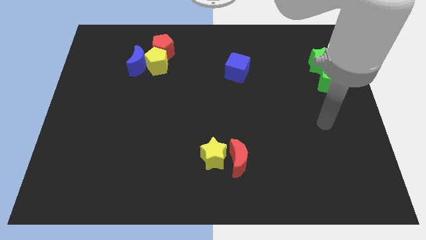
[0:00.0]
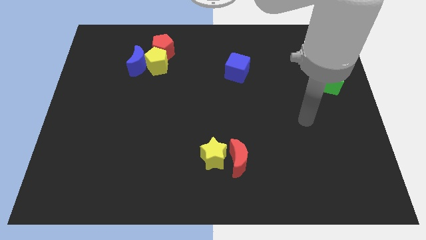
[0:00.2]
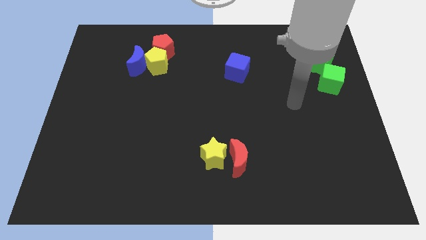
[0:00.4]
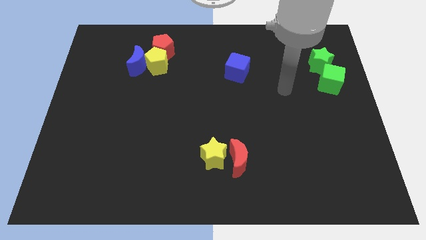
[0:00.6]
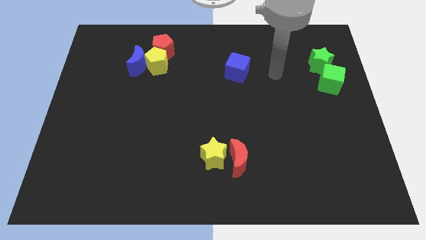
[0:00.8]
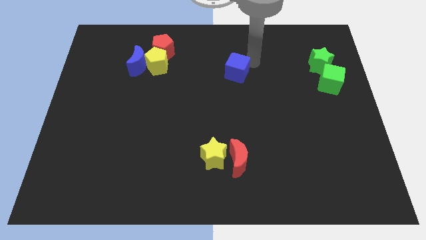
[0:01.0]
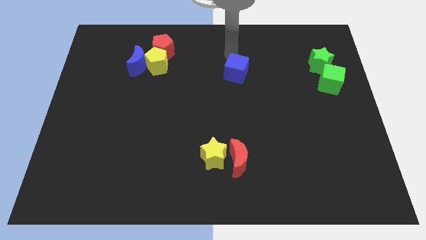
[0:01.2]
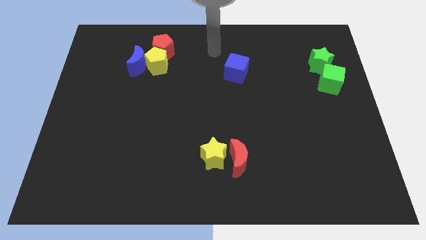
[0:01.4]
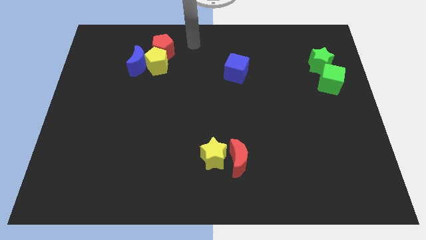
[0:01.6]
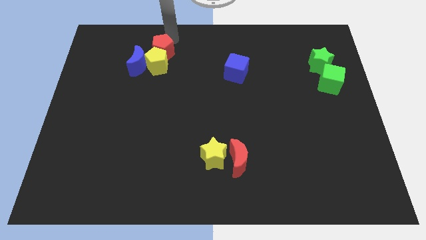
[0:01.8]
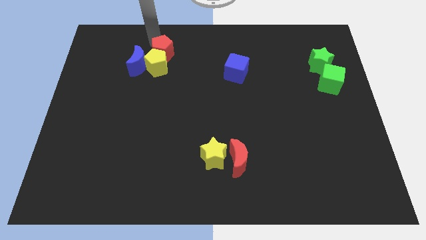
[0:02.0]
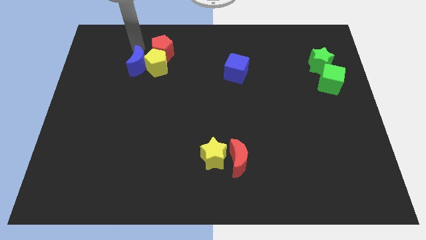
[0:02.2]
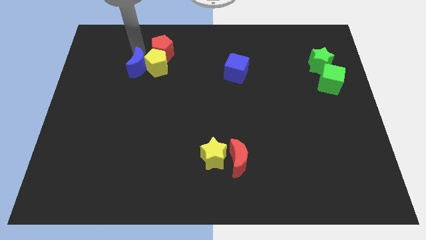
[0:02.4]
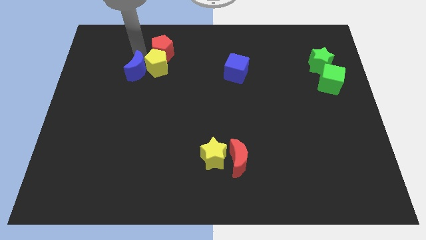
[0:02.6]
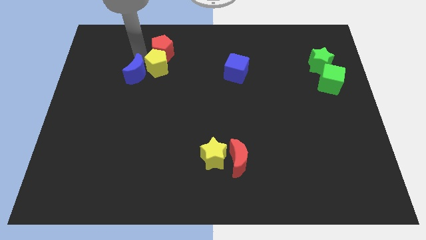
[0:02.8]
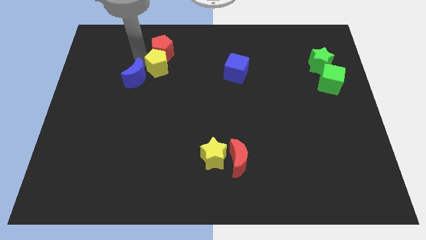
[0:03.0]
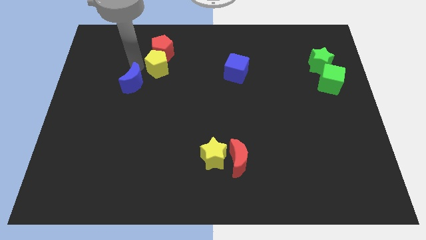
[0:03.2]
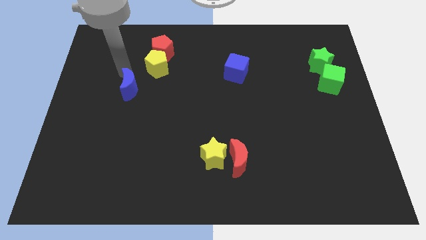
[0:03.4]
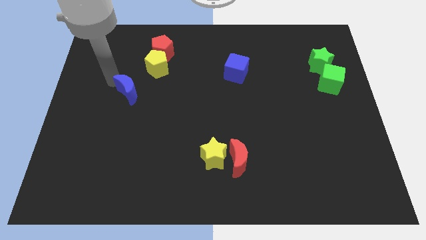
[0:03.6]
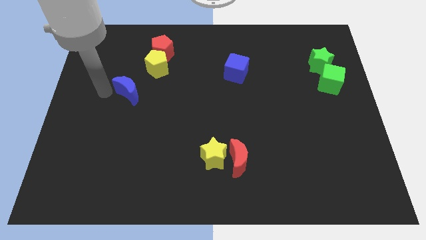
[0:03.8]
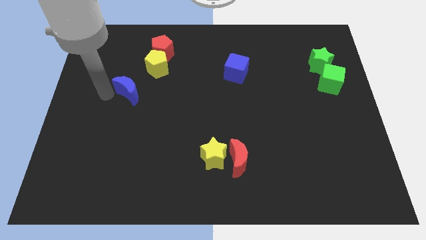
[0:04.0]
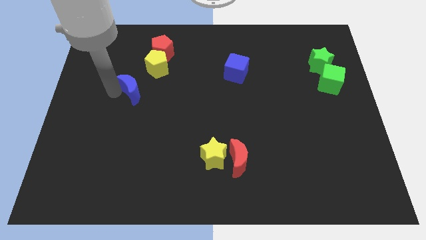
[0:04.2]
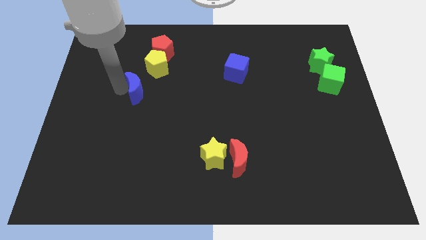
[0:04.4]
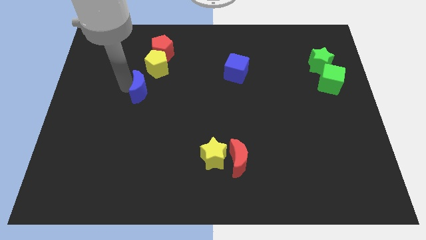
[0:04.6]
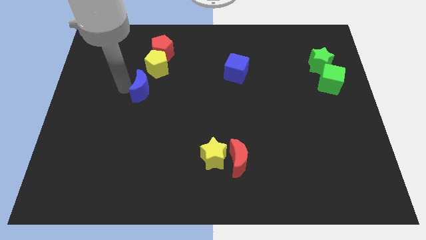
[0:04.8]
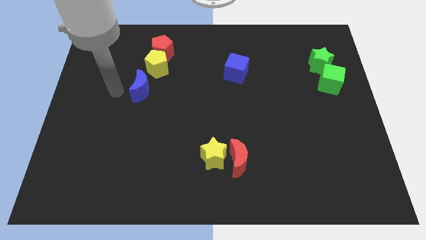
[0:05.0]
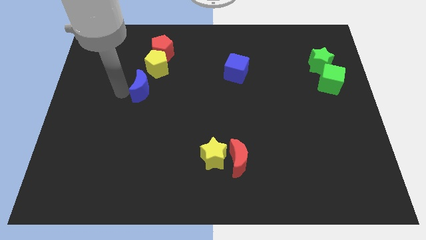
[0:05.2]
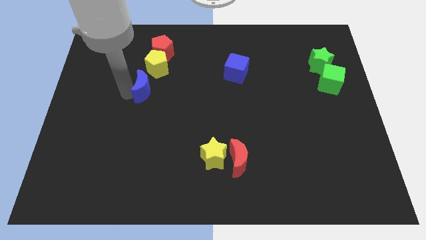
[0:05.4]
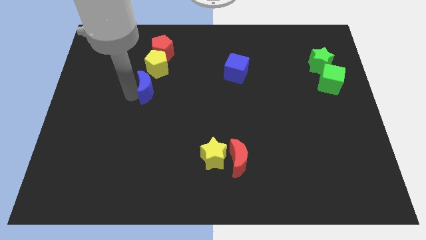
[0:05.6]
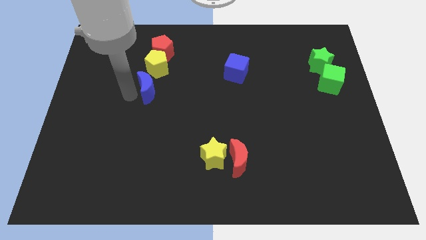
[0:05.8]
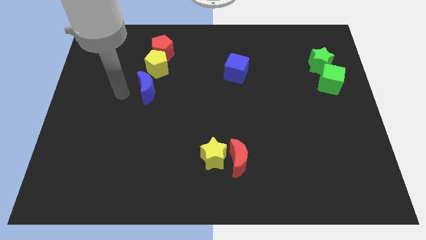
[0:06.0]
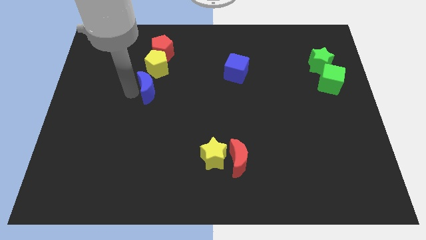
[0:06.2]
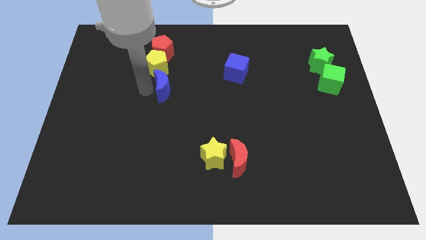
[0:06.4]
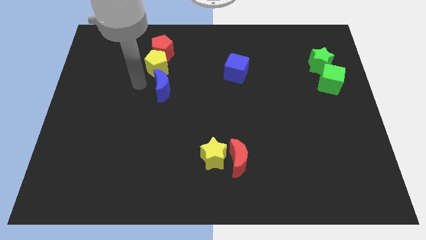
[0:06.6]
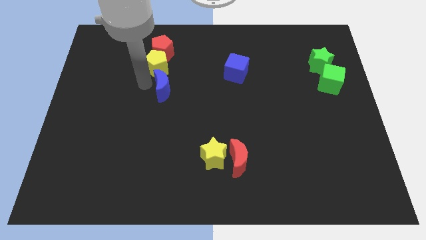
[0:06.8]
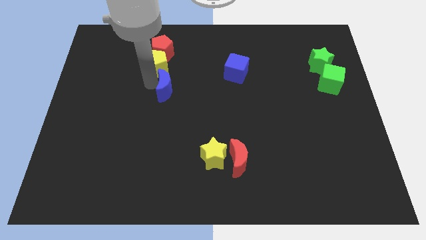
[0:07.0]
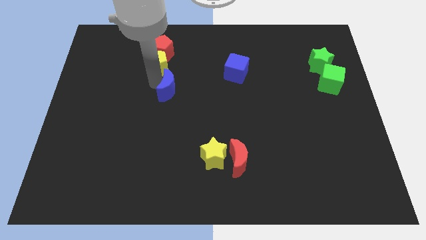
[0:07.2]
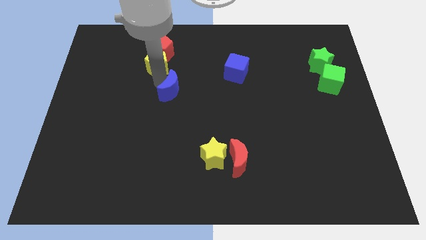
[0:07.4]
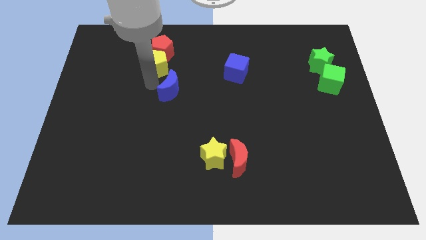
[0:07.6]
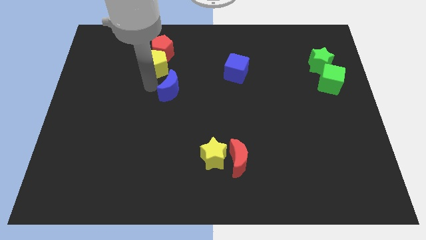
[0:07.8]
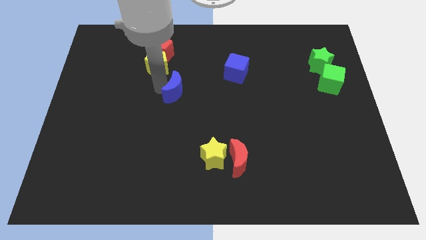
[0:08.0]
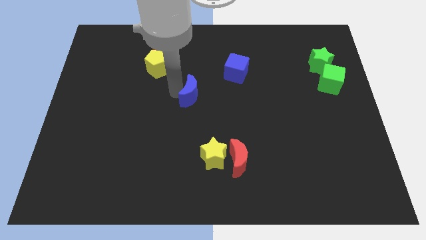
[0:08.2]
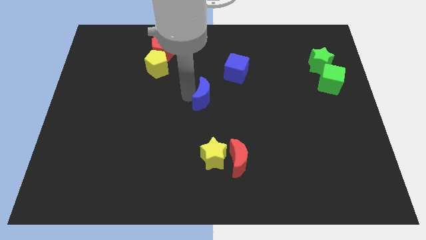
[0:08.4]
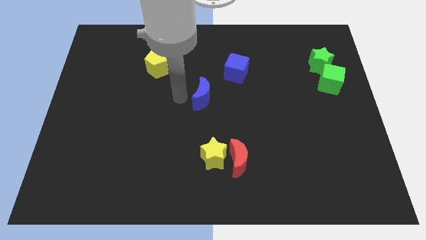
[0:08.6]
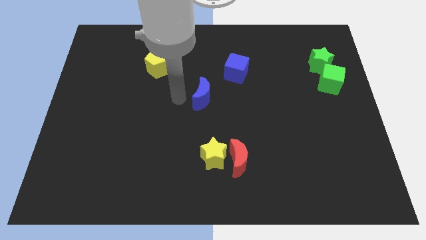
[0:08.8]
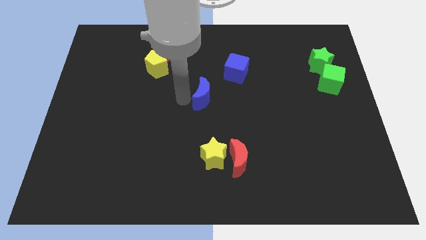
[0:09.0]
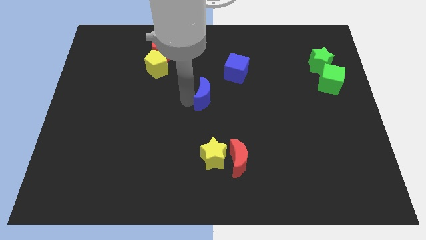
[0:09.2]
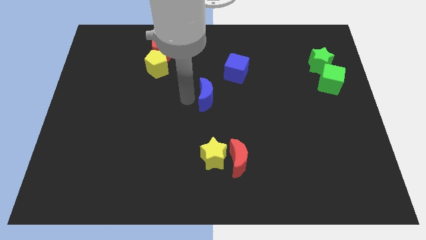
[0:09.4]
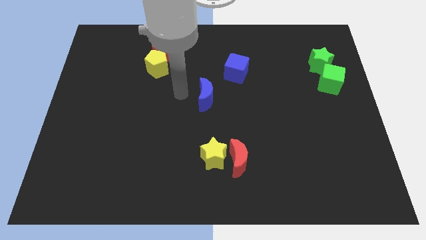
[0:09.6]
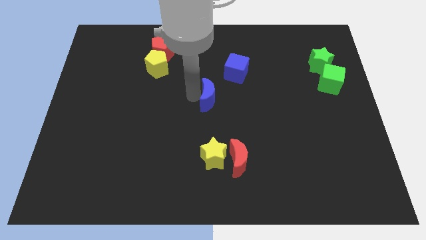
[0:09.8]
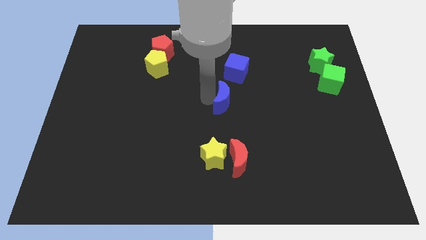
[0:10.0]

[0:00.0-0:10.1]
slide the blue moon to the bottom side of the blue cube

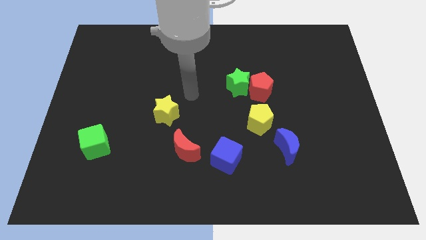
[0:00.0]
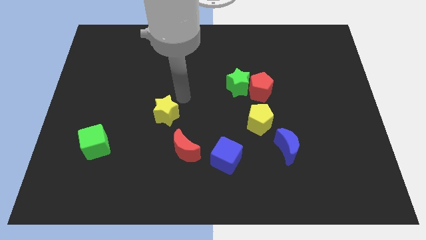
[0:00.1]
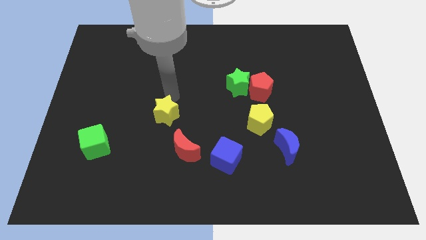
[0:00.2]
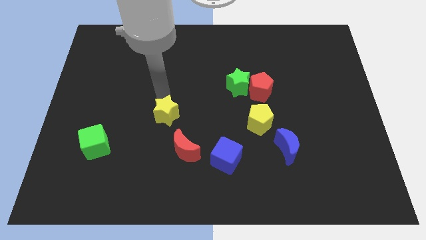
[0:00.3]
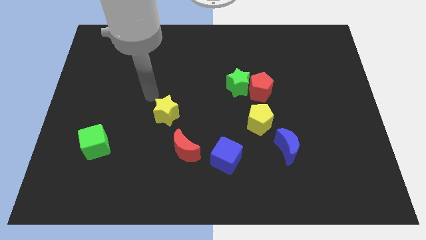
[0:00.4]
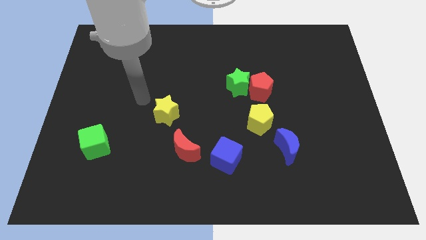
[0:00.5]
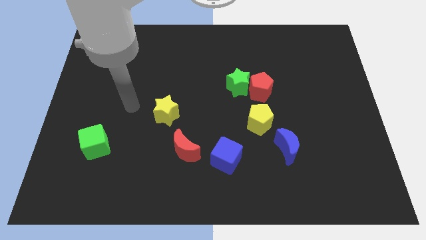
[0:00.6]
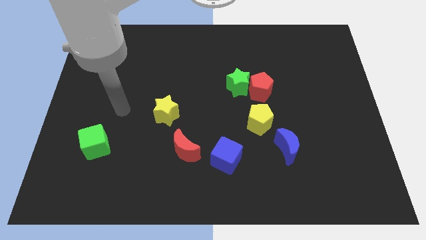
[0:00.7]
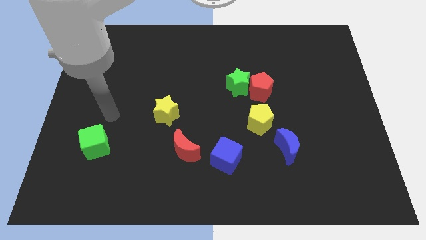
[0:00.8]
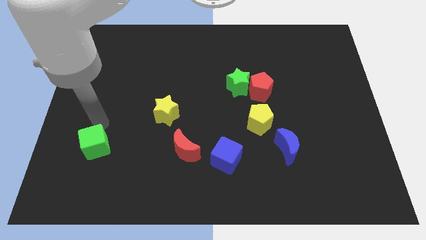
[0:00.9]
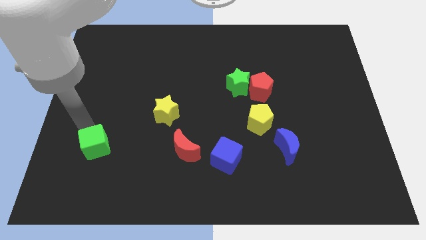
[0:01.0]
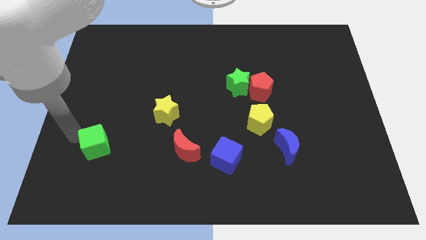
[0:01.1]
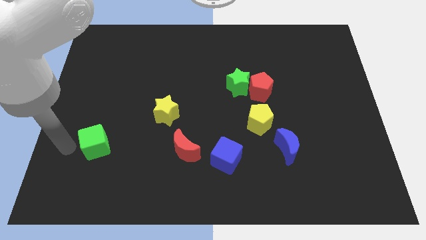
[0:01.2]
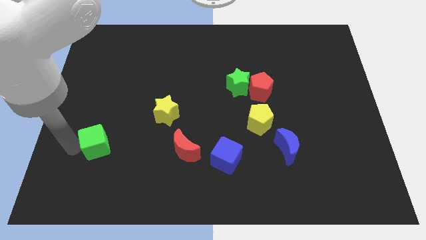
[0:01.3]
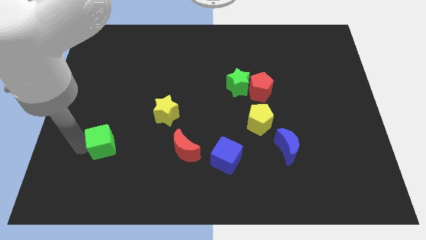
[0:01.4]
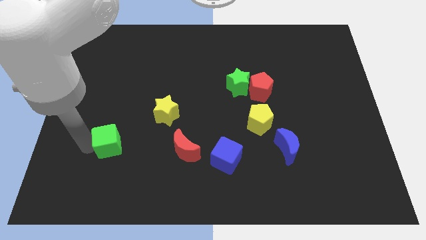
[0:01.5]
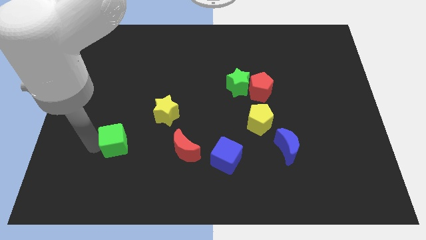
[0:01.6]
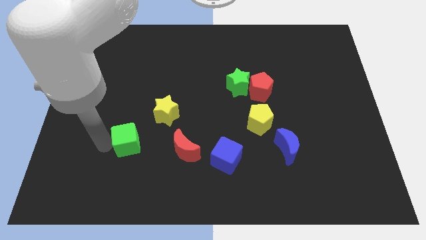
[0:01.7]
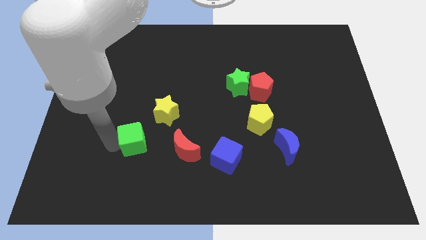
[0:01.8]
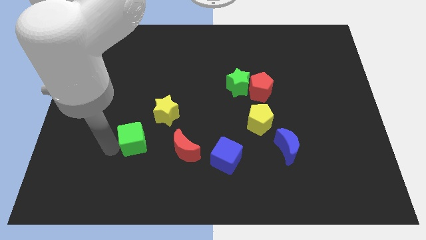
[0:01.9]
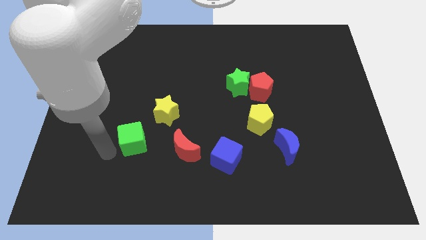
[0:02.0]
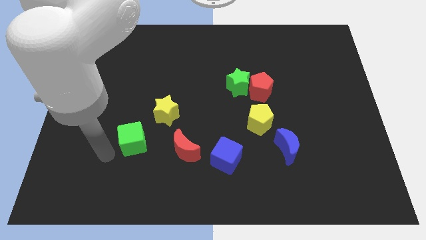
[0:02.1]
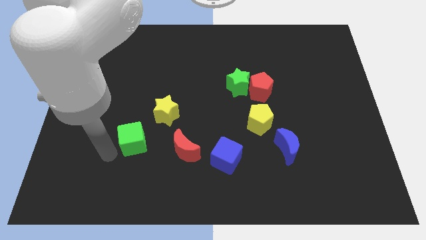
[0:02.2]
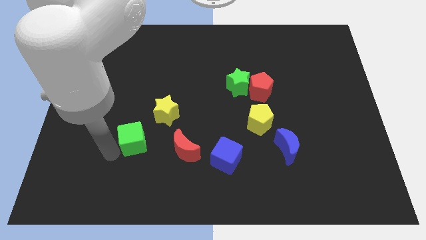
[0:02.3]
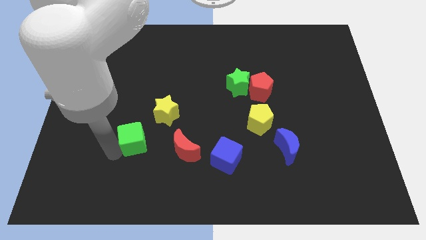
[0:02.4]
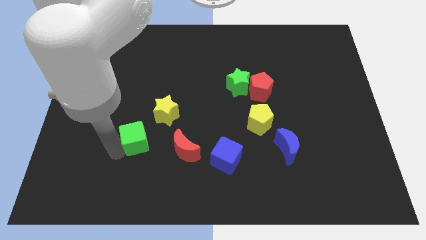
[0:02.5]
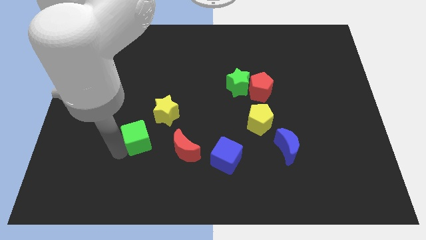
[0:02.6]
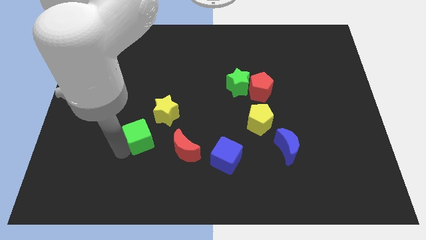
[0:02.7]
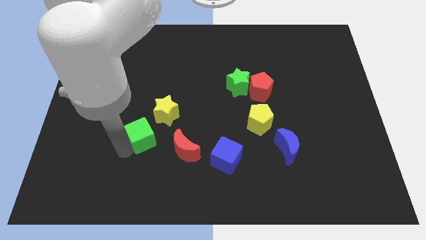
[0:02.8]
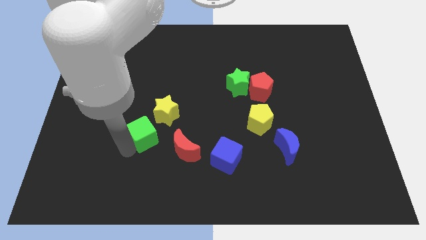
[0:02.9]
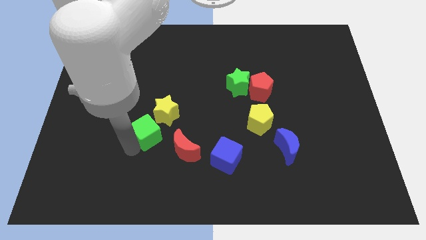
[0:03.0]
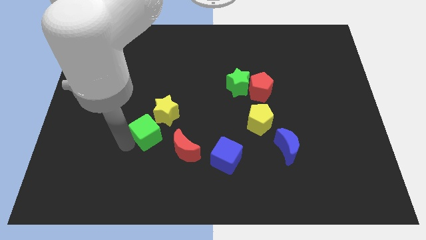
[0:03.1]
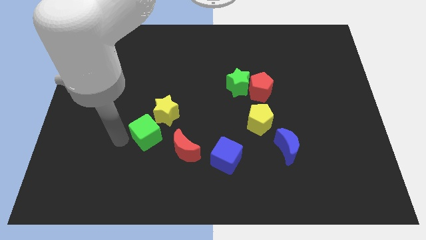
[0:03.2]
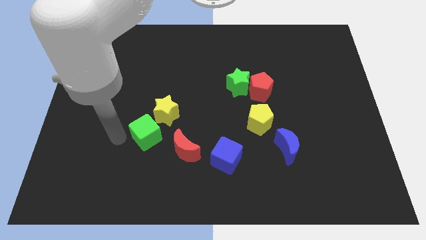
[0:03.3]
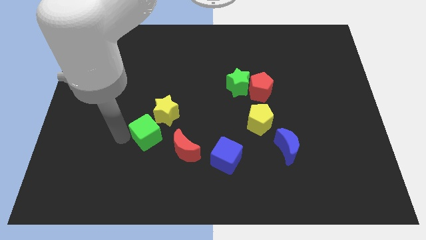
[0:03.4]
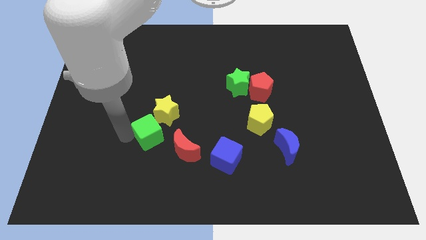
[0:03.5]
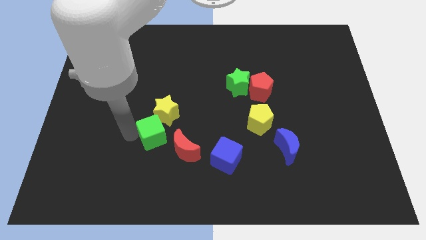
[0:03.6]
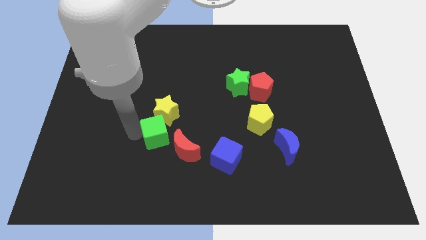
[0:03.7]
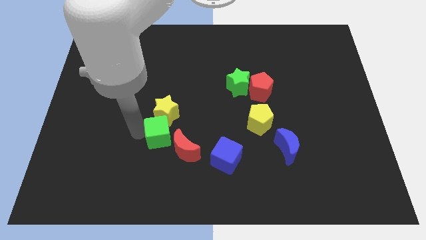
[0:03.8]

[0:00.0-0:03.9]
push the green cube diagonally down and to the right of the yellow star
